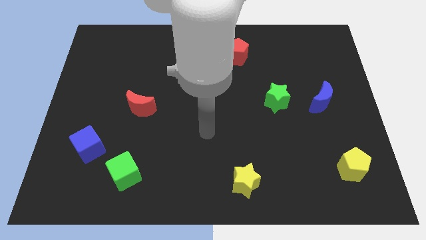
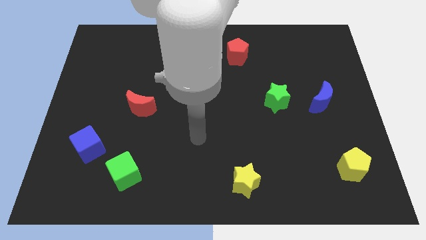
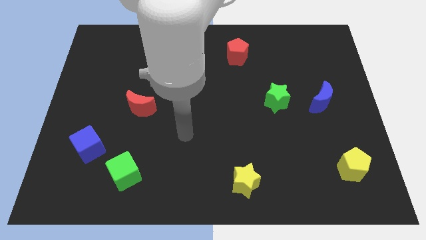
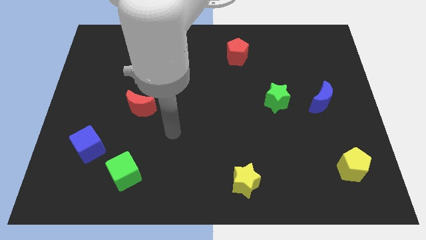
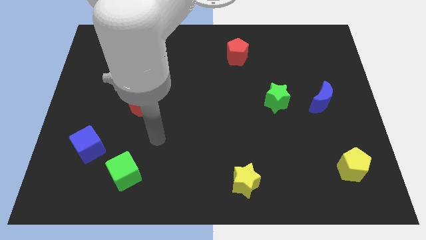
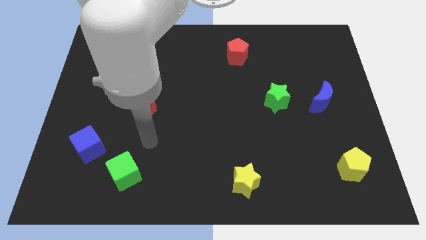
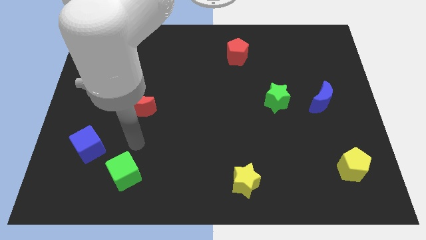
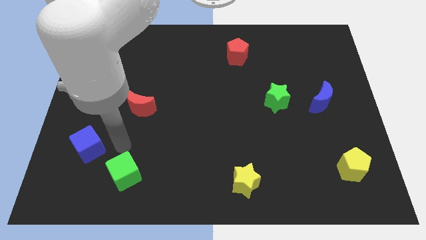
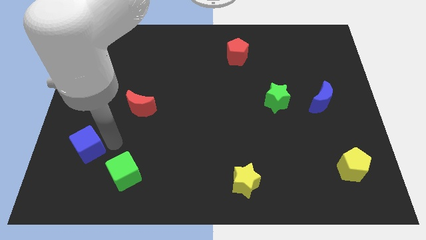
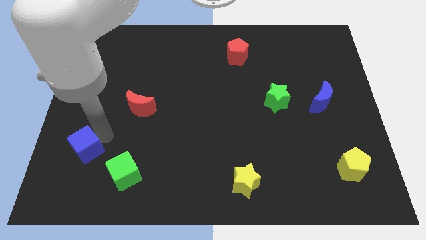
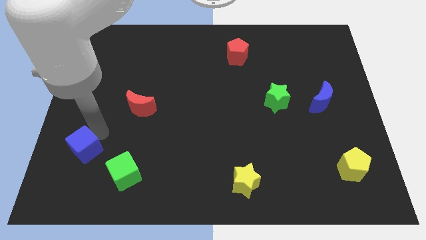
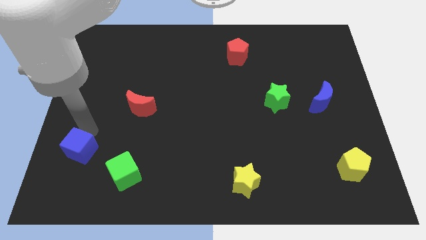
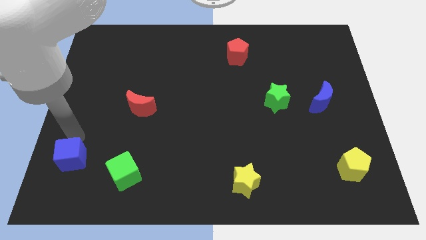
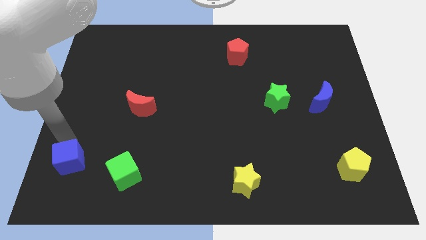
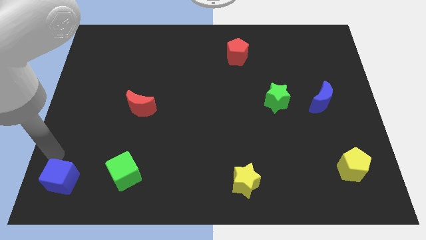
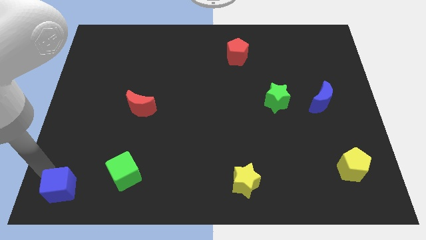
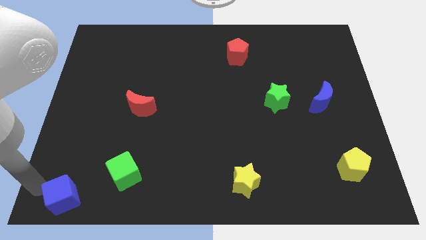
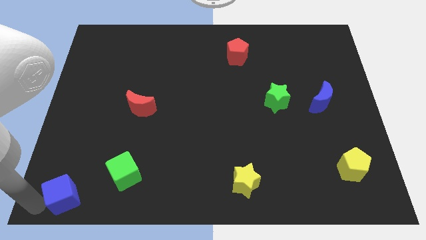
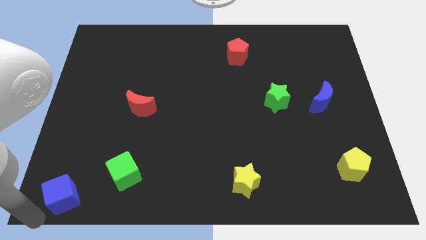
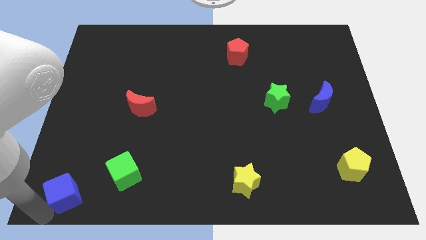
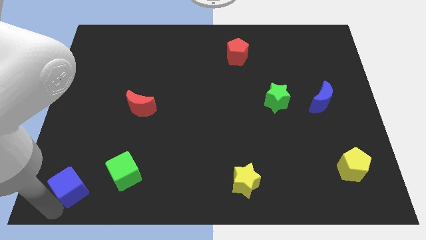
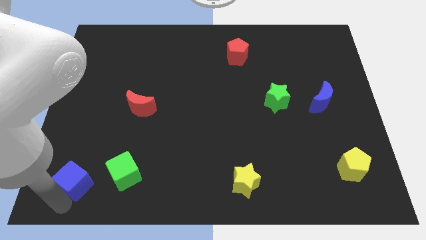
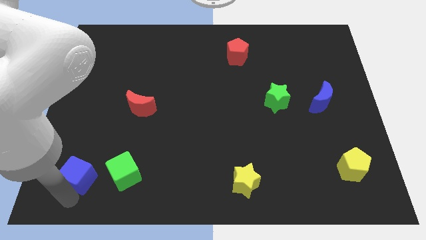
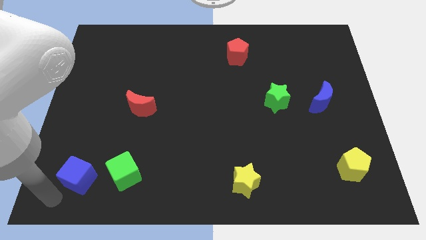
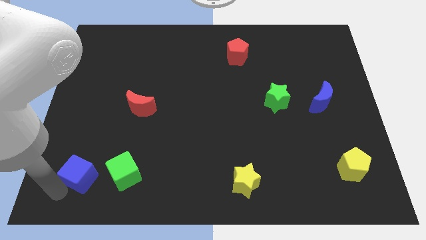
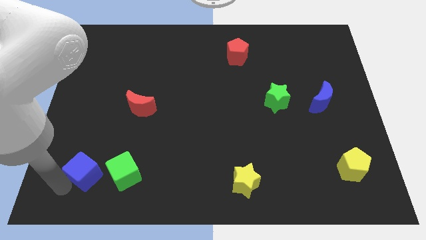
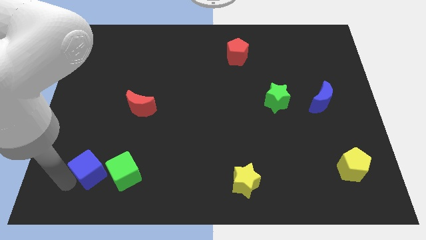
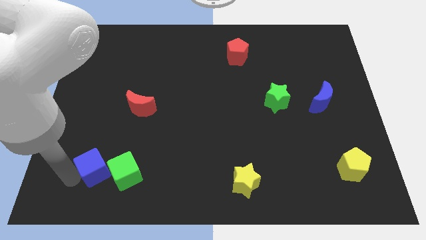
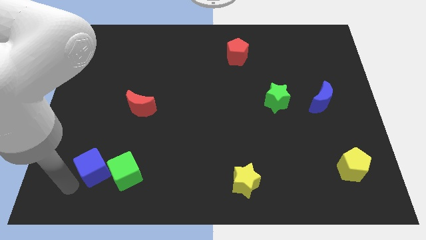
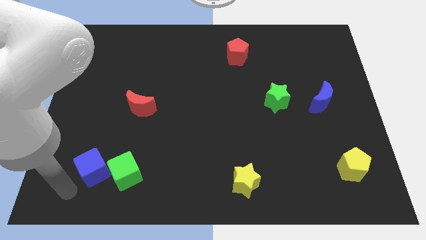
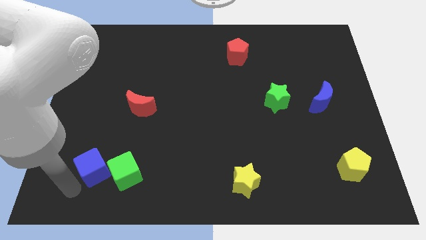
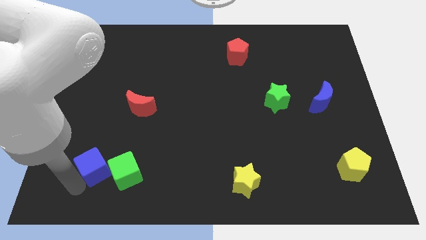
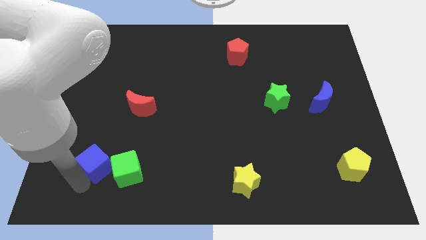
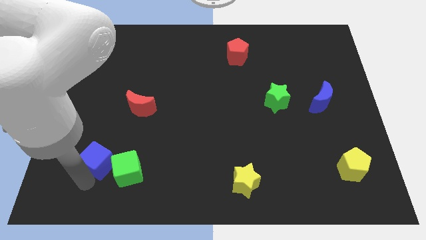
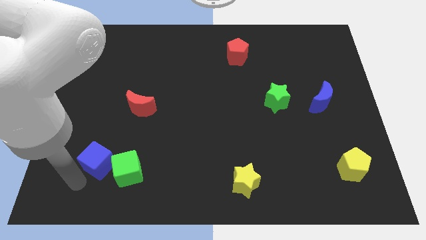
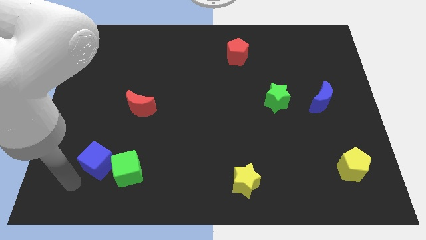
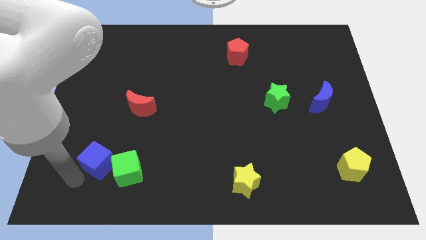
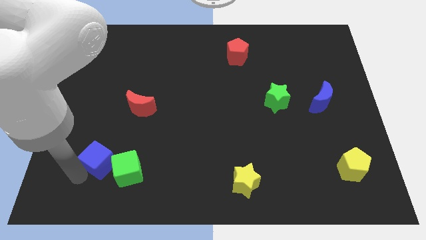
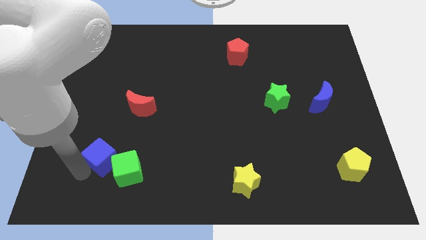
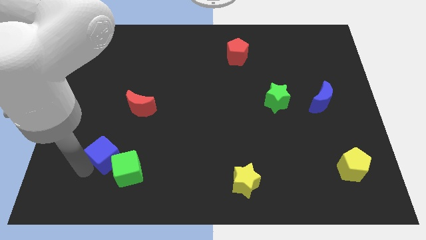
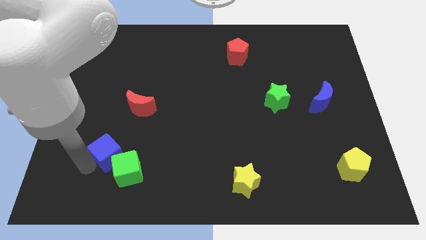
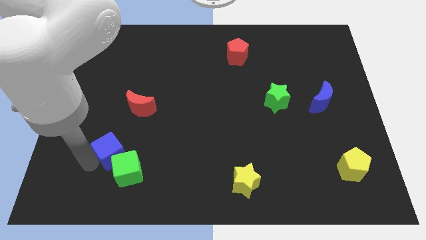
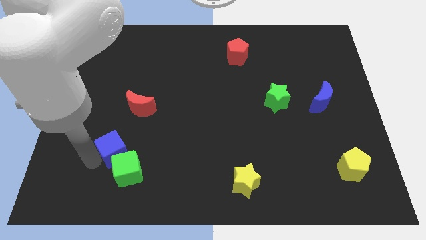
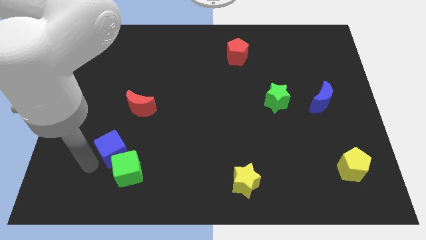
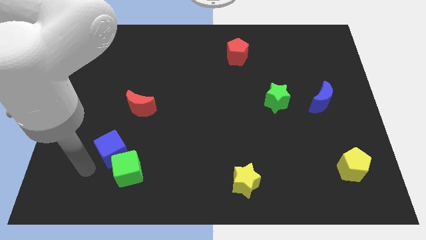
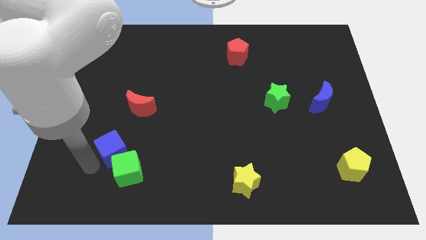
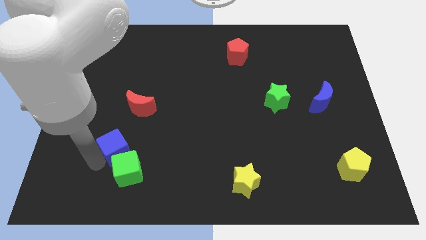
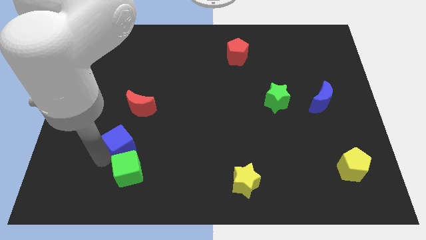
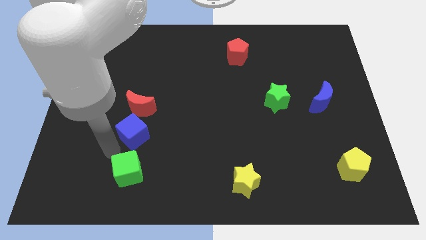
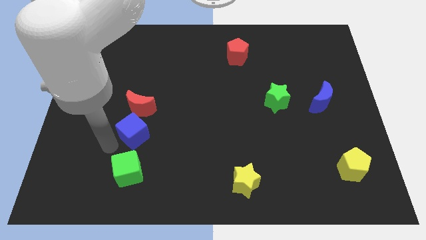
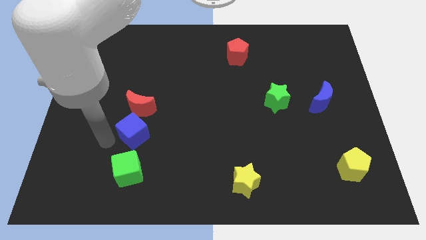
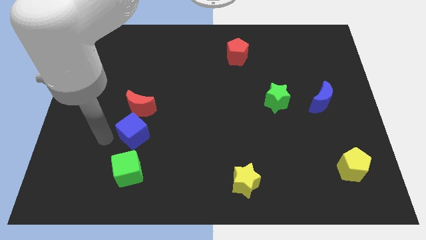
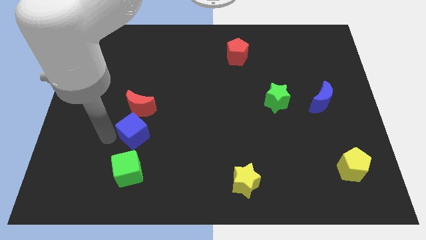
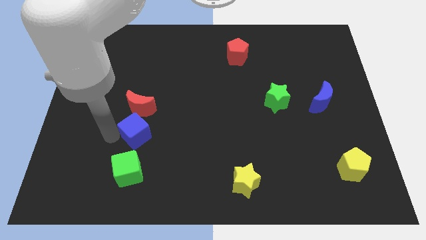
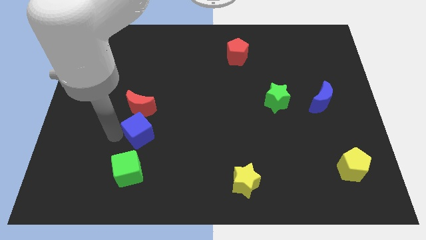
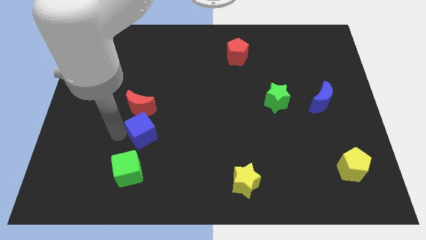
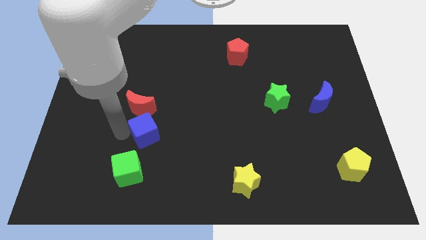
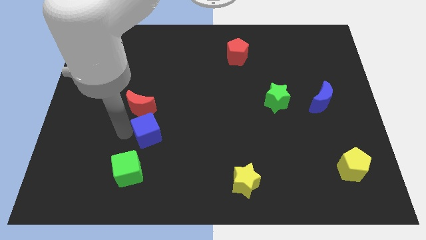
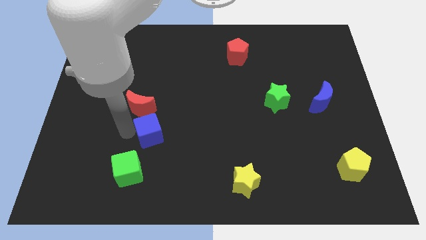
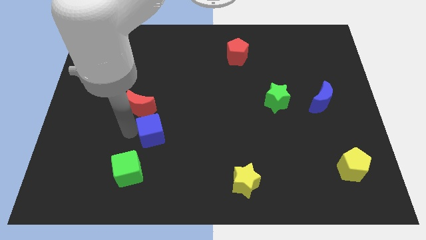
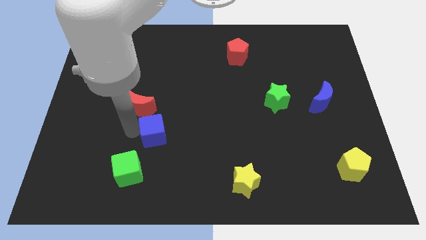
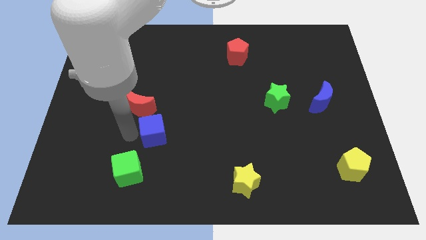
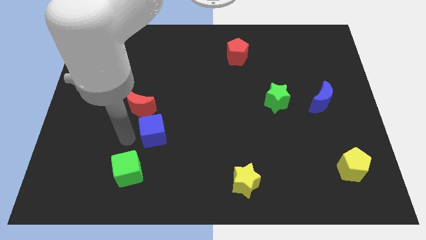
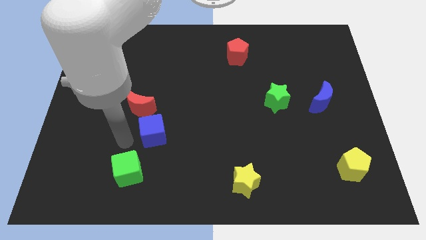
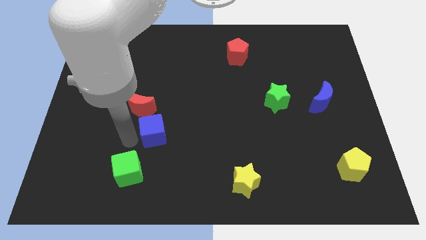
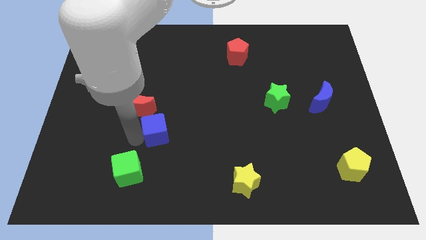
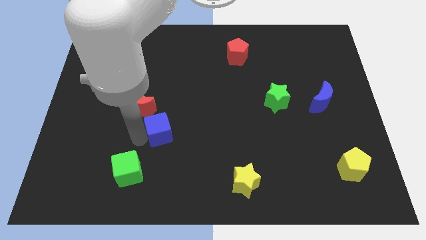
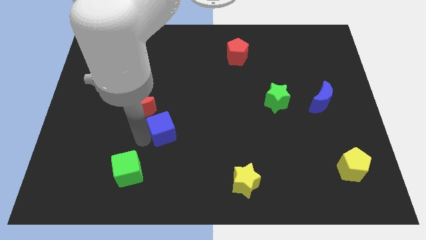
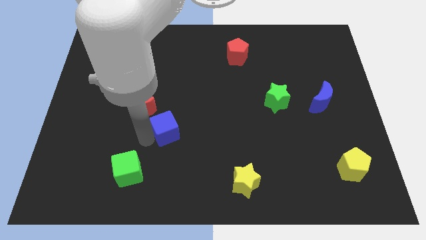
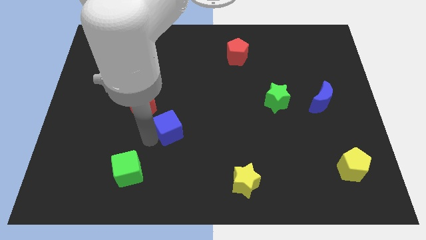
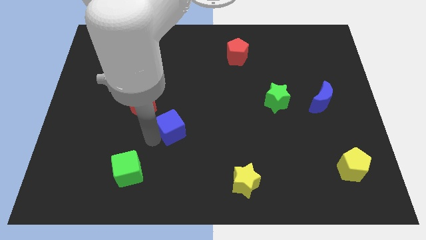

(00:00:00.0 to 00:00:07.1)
put the blue cube to the middle of the board

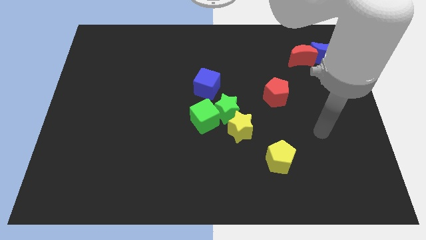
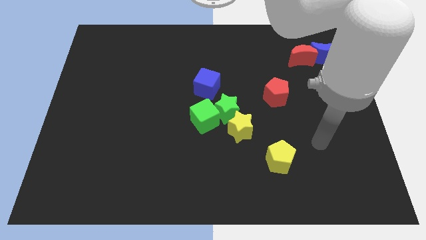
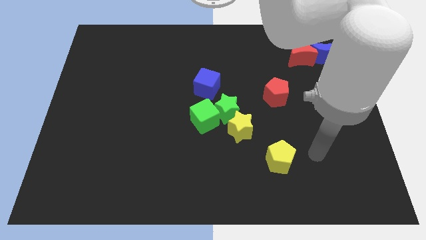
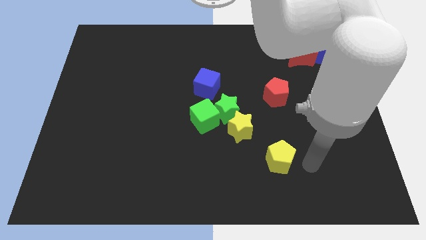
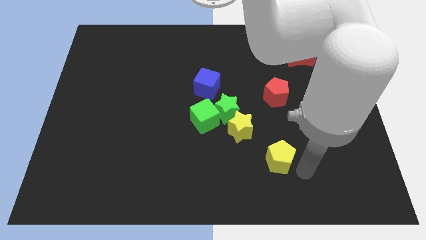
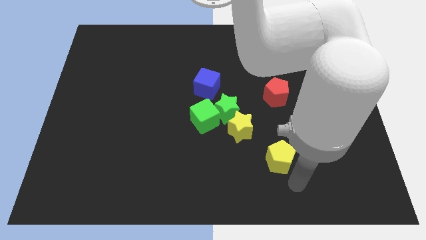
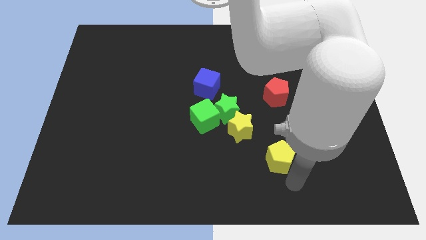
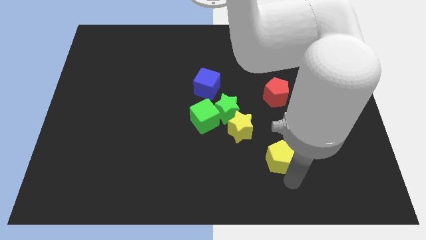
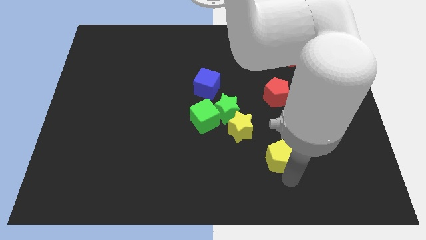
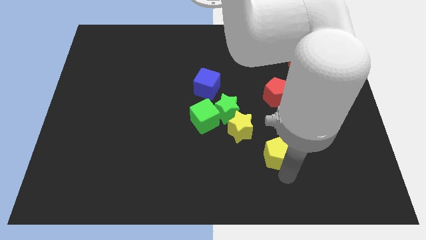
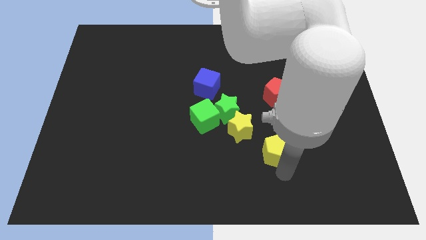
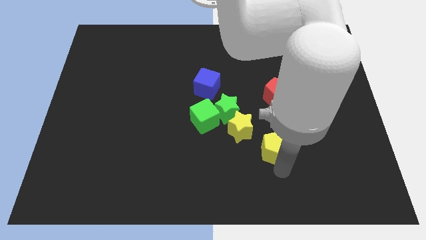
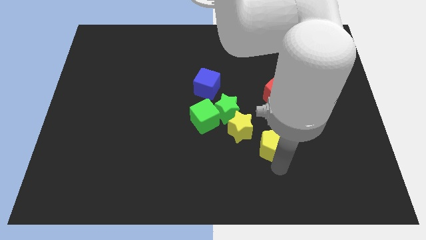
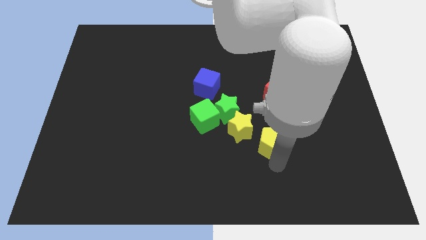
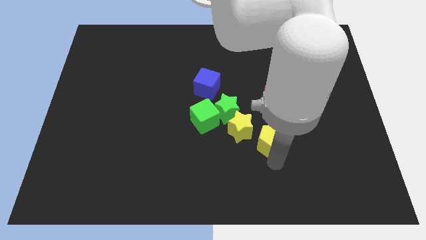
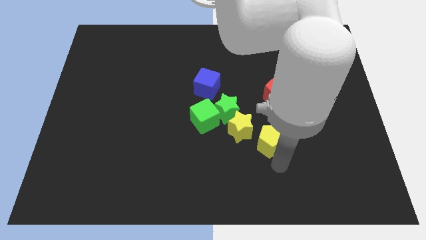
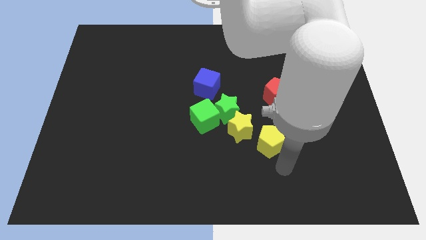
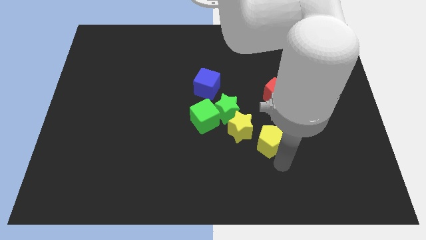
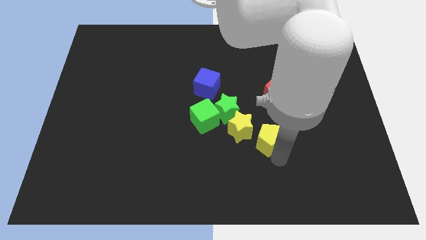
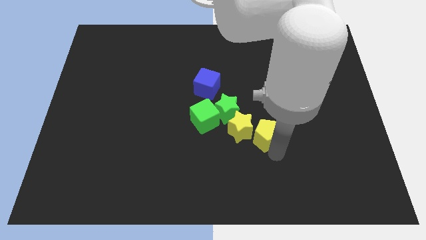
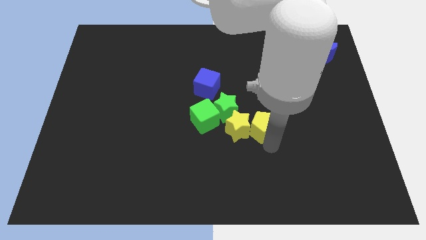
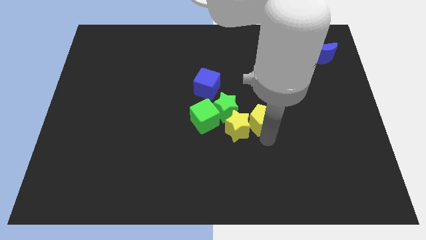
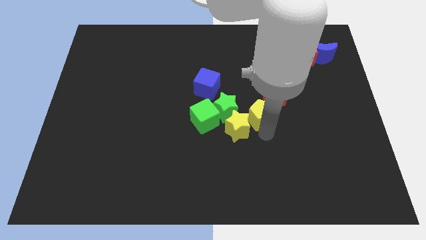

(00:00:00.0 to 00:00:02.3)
put the yellow pentagon to the middle of the board
